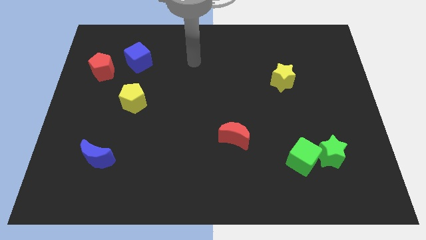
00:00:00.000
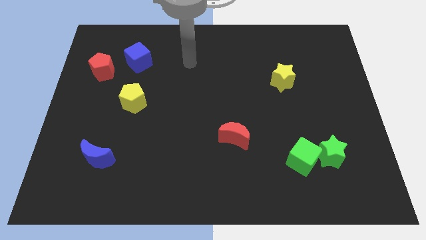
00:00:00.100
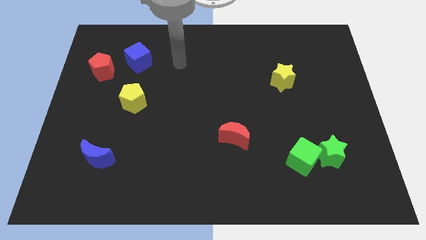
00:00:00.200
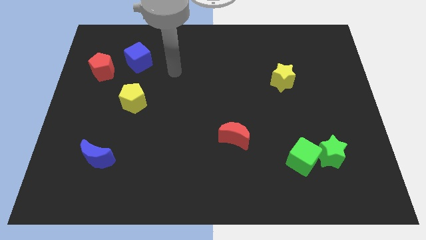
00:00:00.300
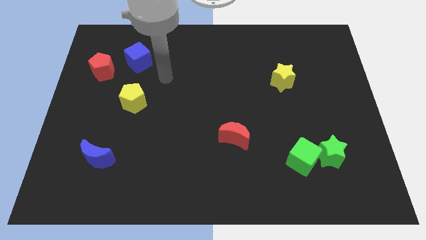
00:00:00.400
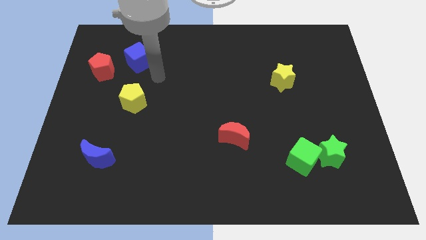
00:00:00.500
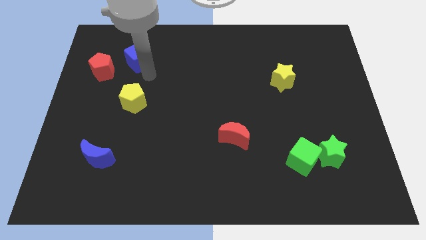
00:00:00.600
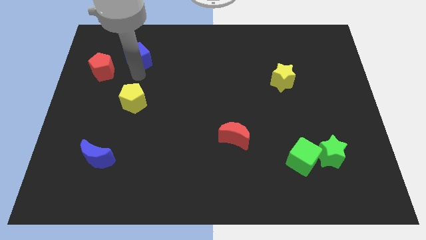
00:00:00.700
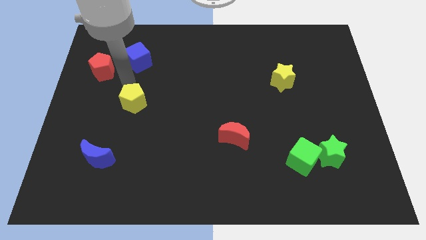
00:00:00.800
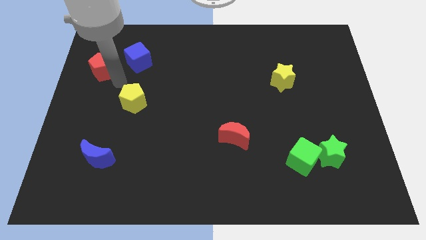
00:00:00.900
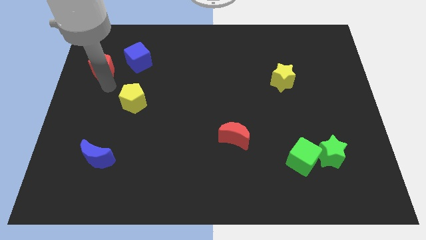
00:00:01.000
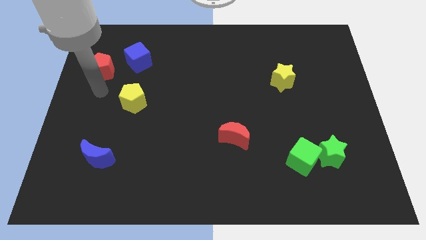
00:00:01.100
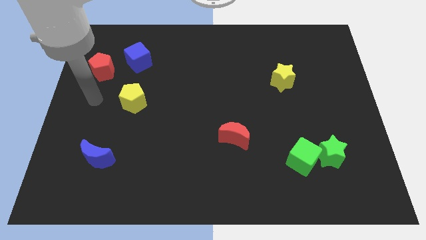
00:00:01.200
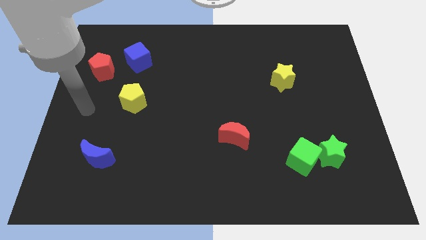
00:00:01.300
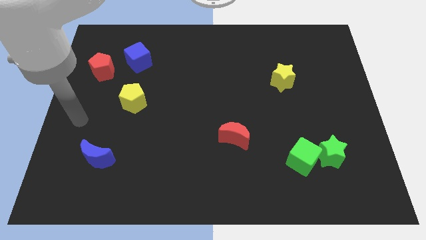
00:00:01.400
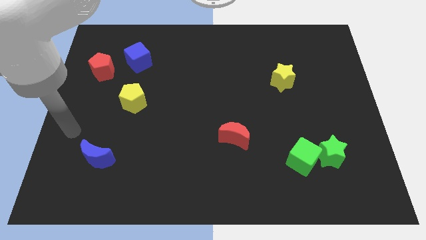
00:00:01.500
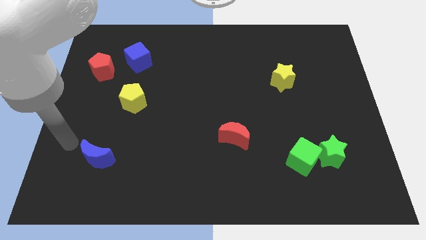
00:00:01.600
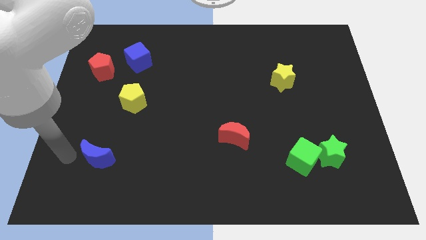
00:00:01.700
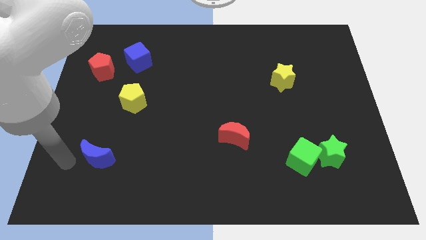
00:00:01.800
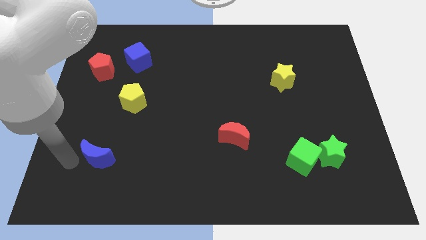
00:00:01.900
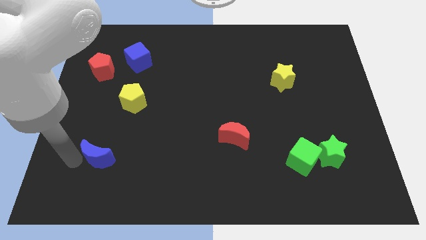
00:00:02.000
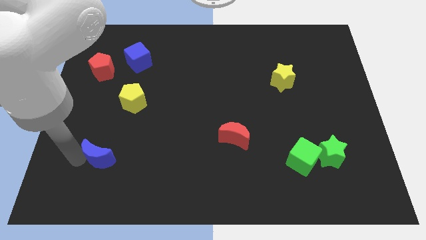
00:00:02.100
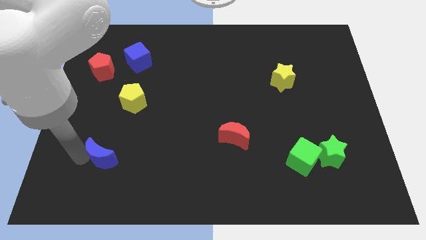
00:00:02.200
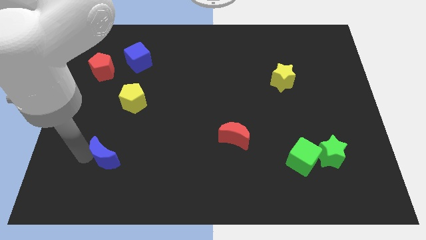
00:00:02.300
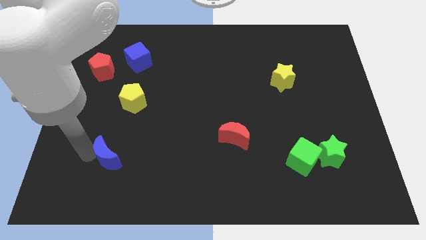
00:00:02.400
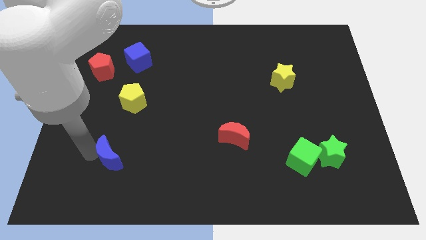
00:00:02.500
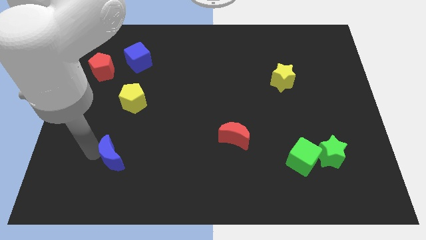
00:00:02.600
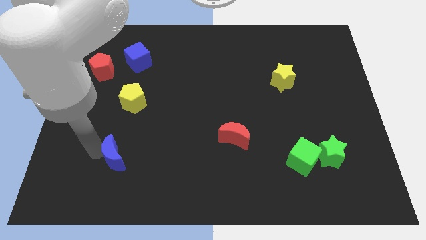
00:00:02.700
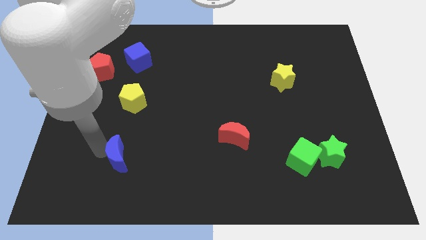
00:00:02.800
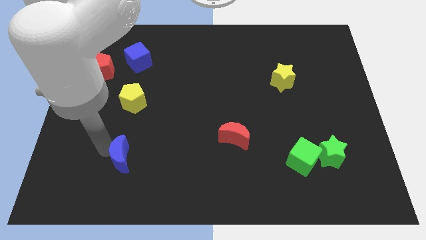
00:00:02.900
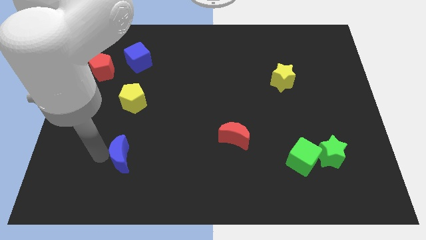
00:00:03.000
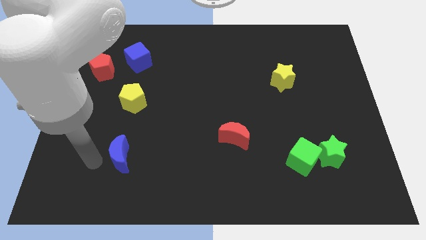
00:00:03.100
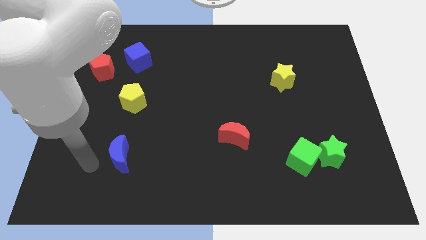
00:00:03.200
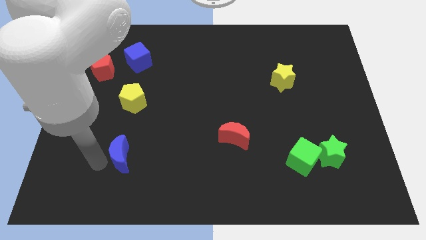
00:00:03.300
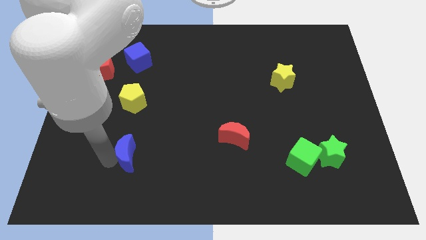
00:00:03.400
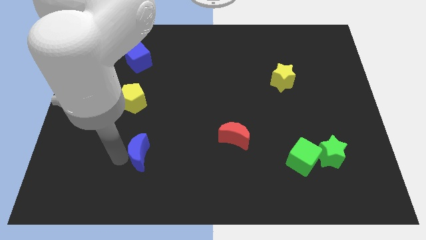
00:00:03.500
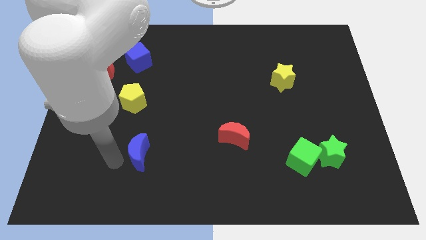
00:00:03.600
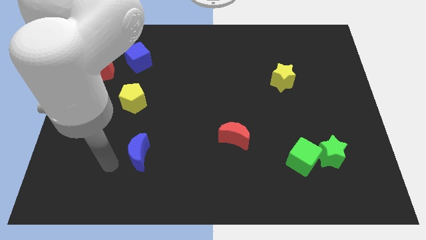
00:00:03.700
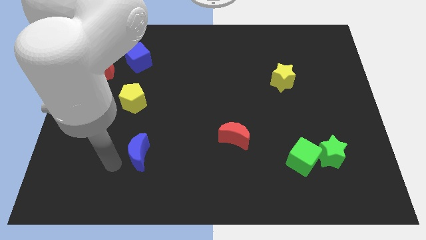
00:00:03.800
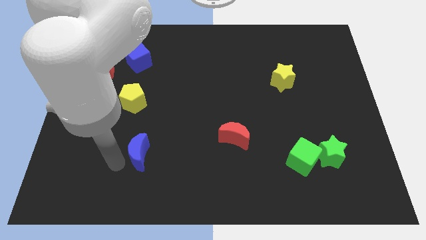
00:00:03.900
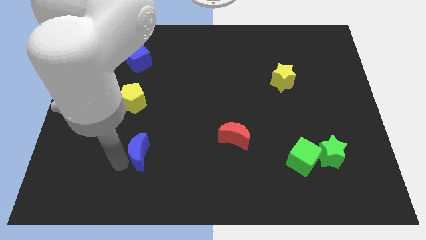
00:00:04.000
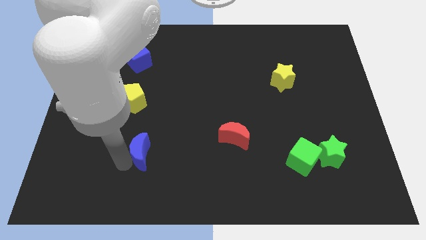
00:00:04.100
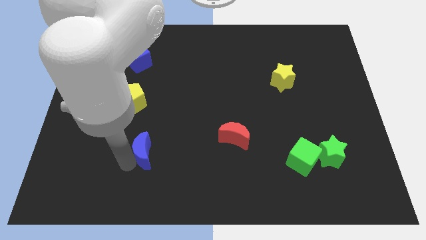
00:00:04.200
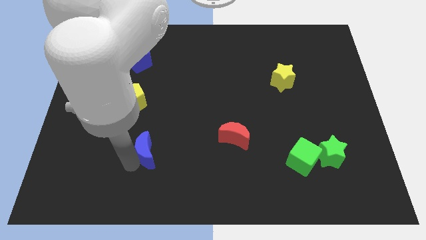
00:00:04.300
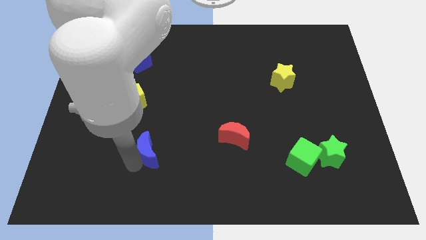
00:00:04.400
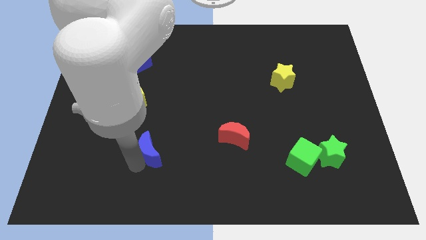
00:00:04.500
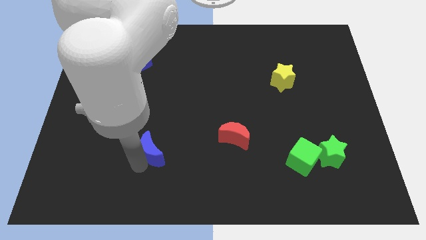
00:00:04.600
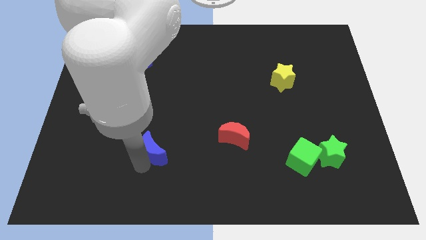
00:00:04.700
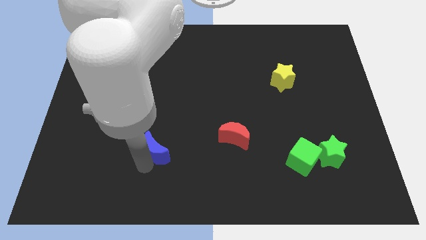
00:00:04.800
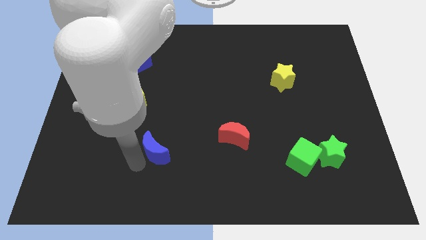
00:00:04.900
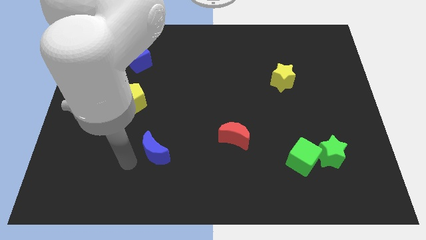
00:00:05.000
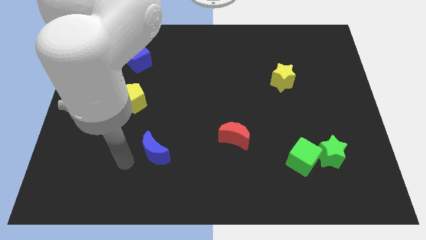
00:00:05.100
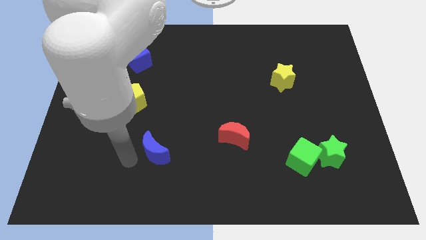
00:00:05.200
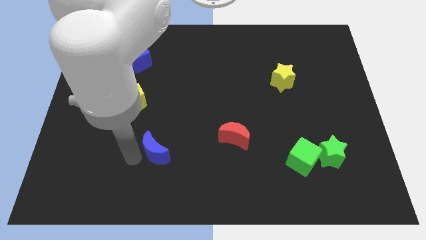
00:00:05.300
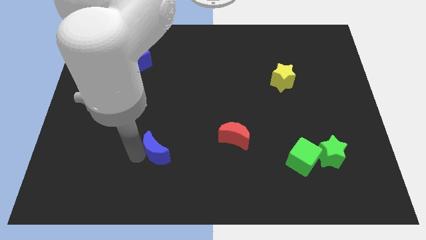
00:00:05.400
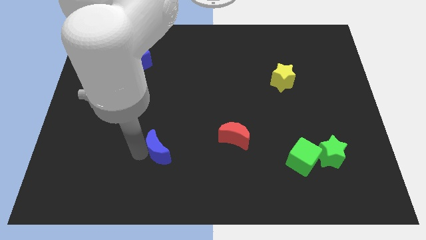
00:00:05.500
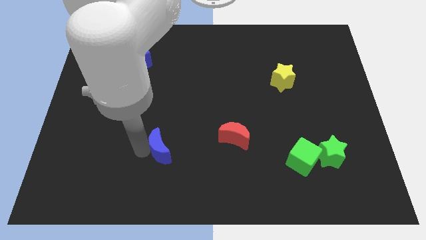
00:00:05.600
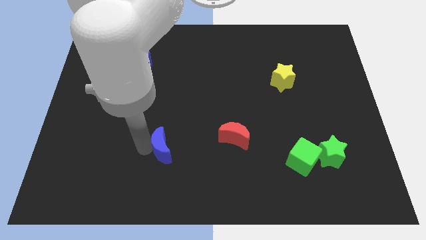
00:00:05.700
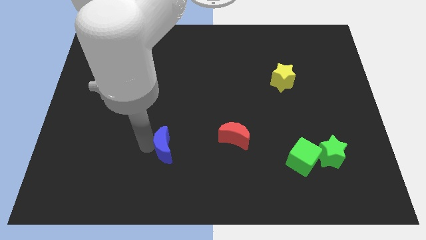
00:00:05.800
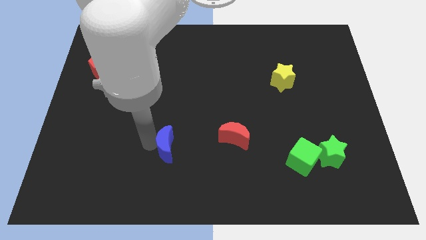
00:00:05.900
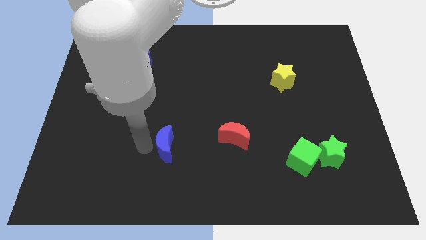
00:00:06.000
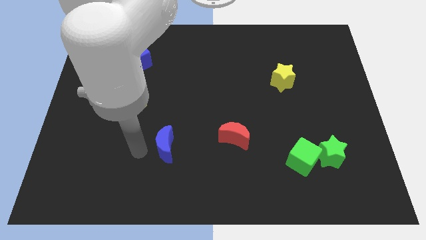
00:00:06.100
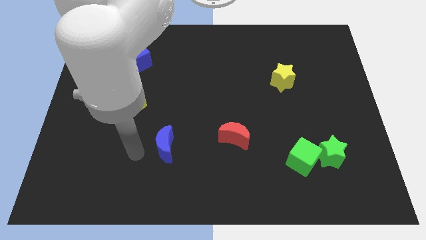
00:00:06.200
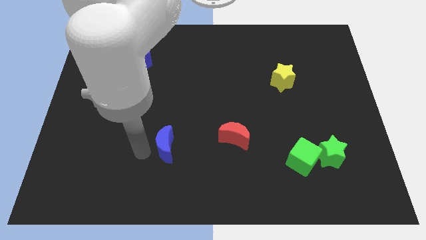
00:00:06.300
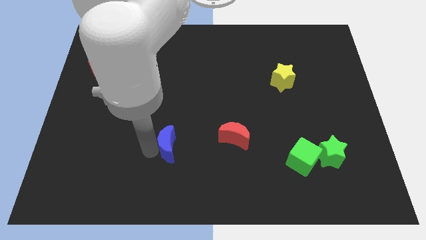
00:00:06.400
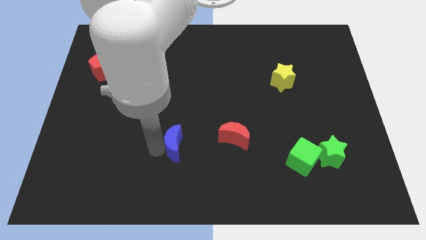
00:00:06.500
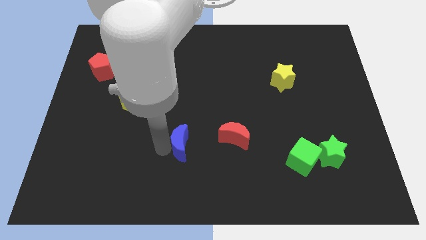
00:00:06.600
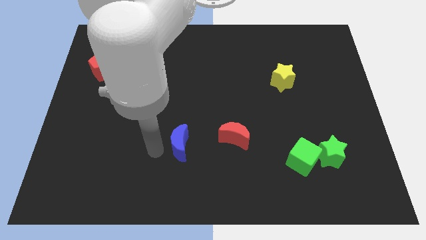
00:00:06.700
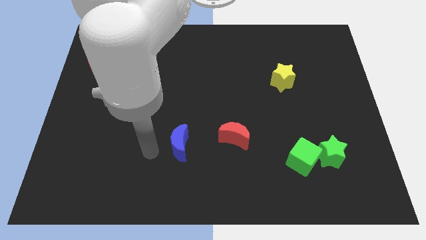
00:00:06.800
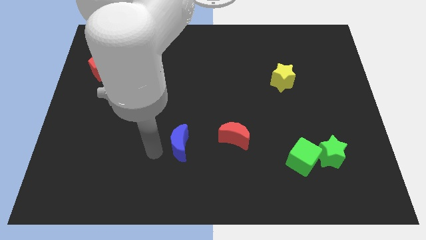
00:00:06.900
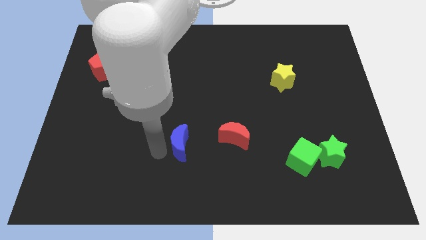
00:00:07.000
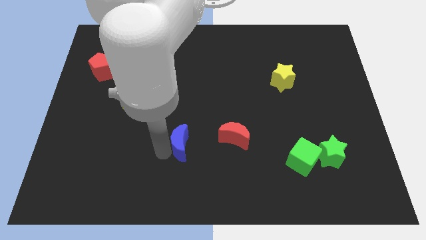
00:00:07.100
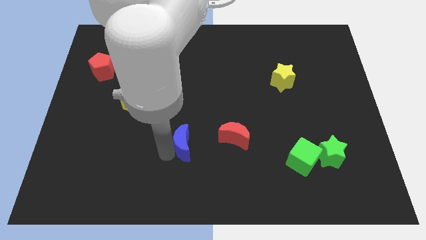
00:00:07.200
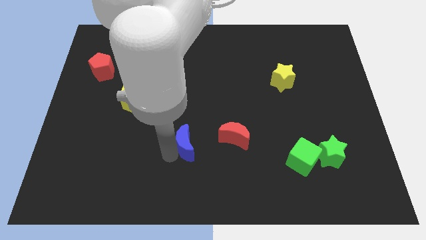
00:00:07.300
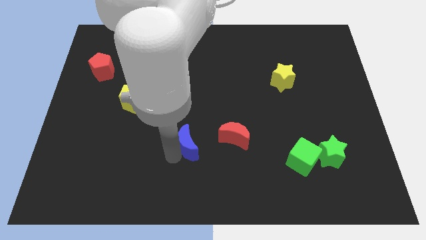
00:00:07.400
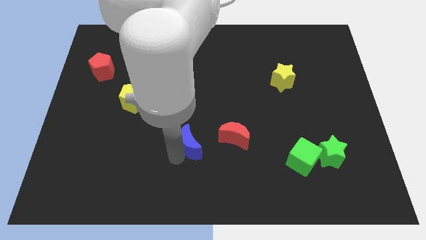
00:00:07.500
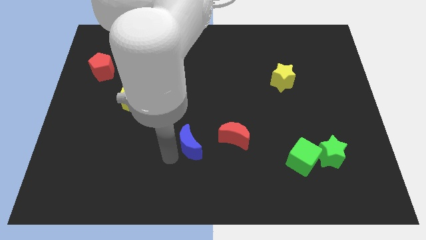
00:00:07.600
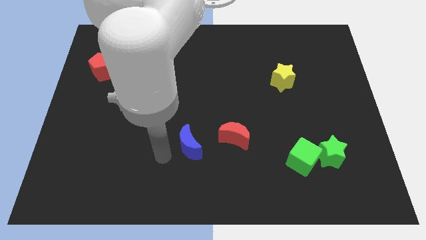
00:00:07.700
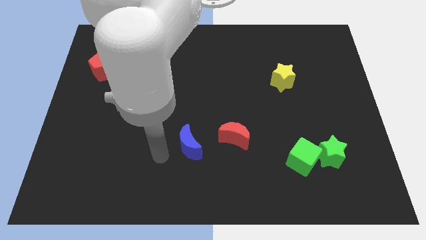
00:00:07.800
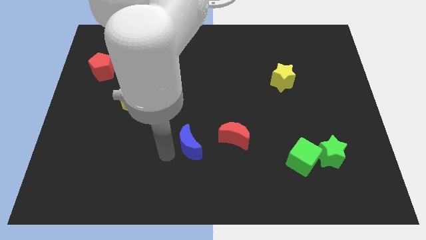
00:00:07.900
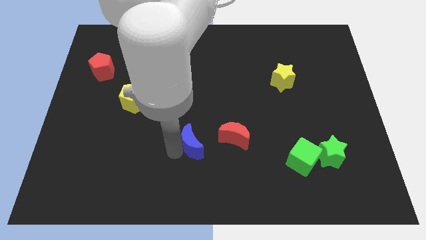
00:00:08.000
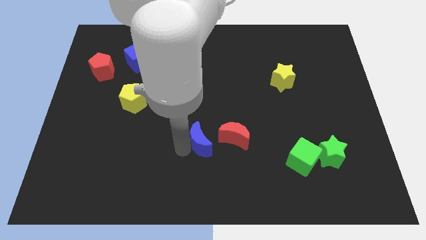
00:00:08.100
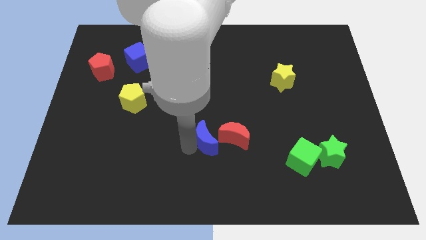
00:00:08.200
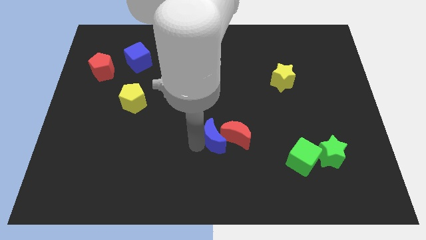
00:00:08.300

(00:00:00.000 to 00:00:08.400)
slide the blue moon next to the red moon
